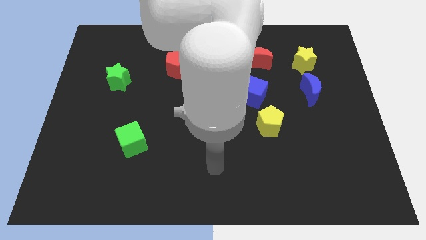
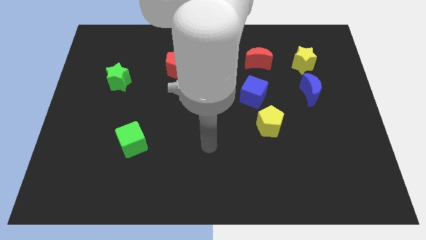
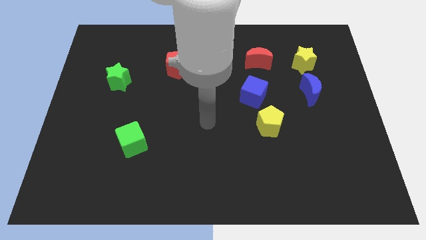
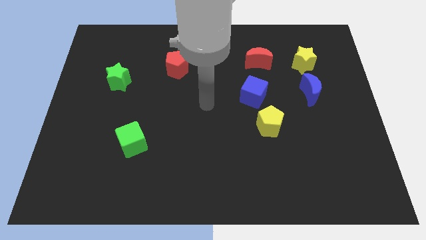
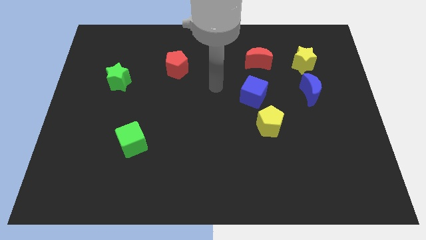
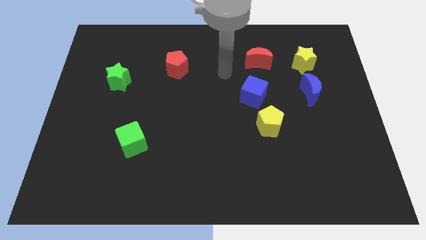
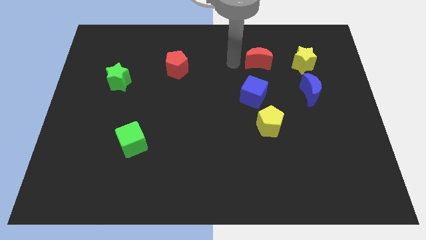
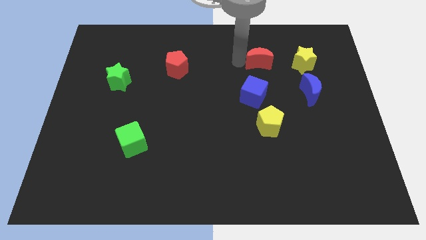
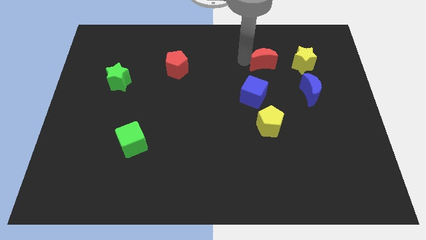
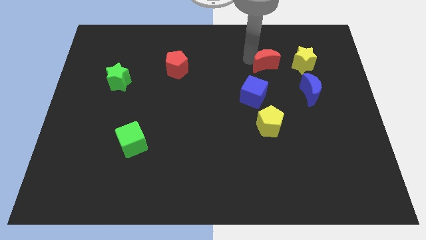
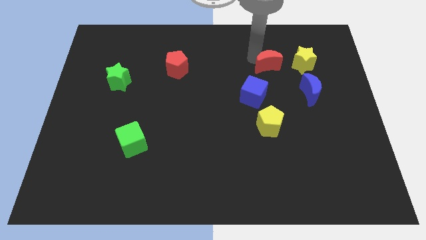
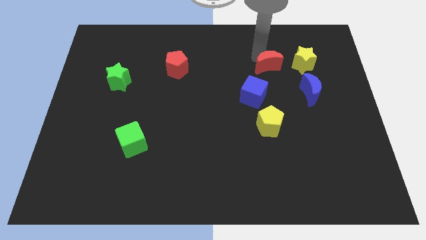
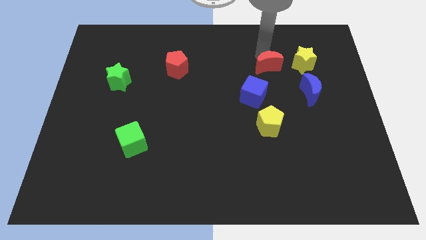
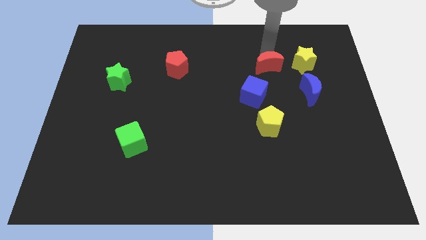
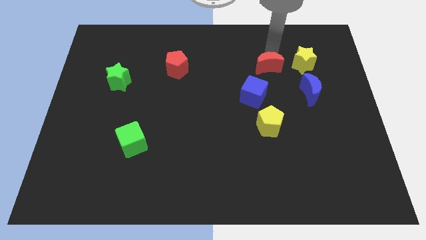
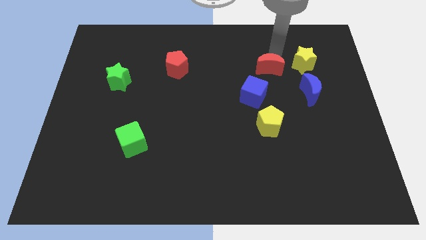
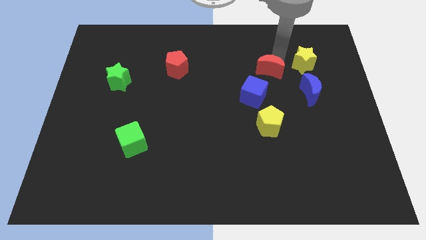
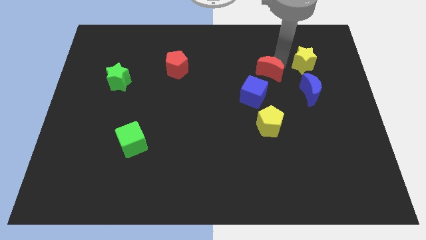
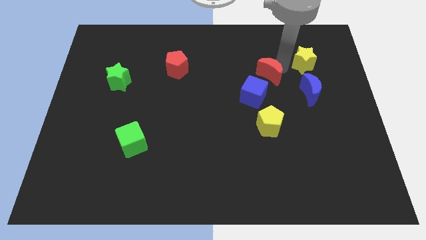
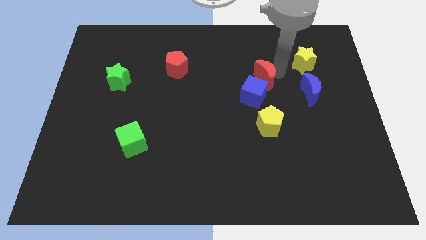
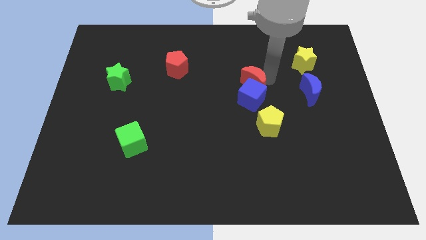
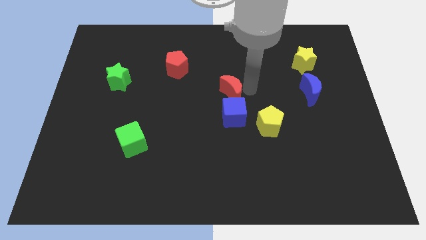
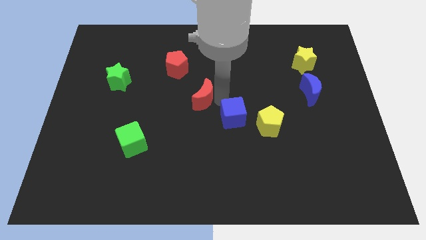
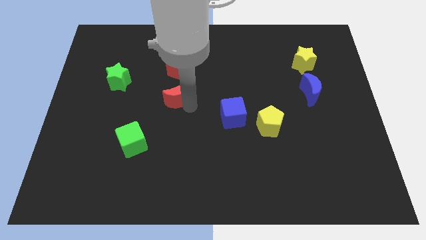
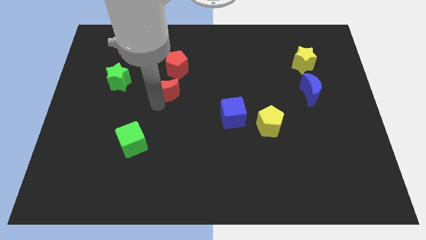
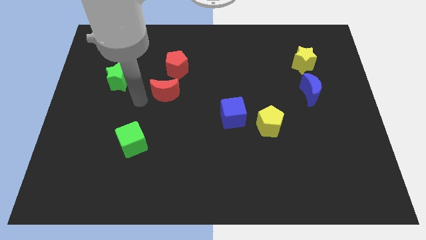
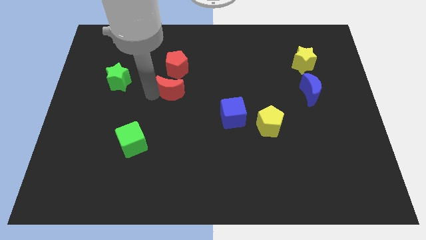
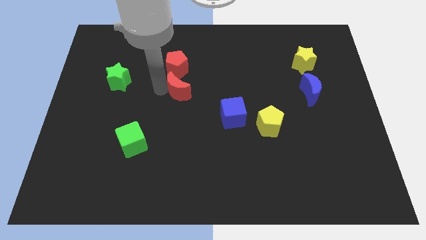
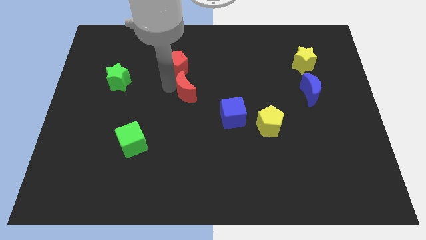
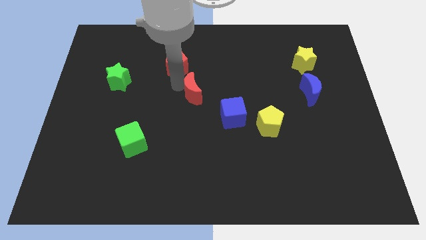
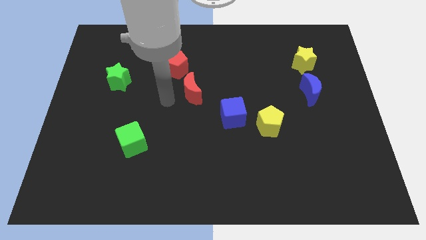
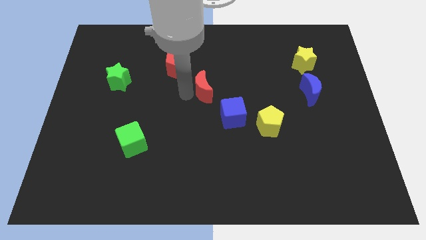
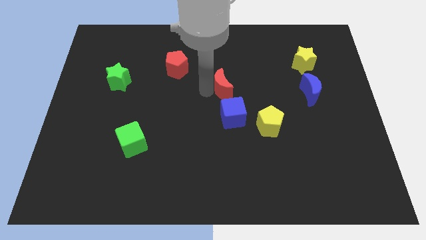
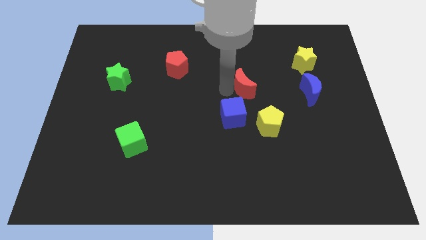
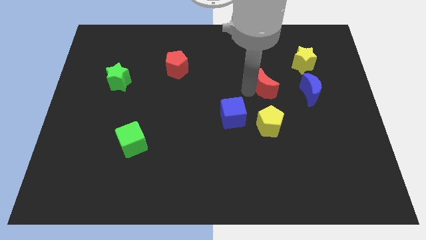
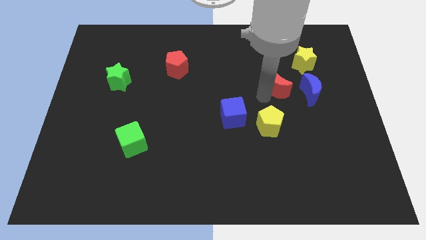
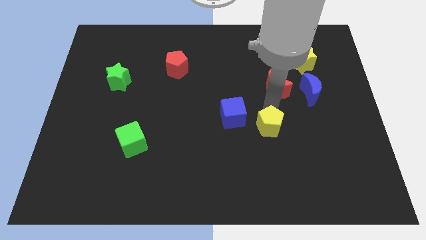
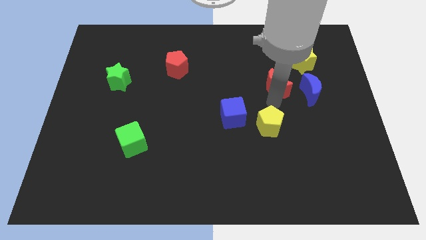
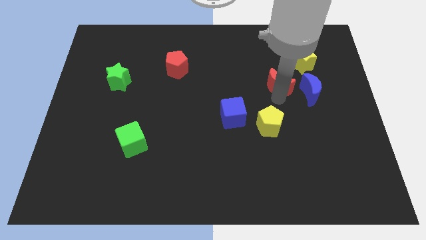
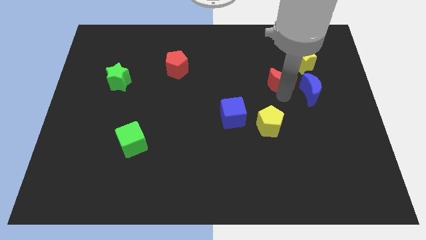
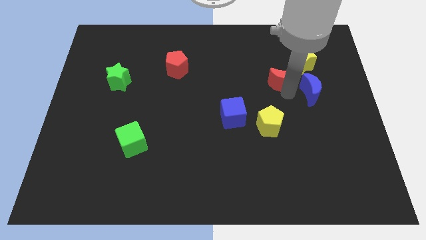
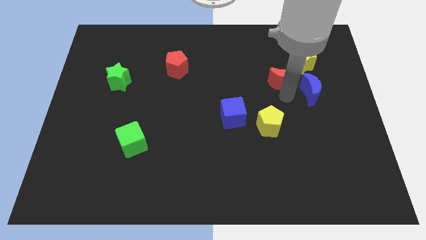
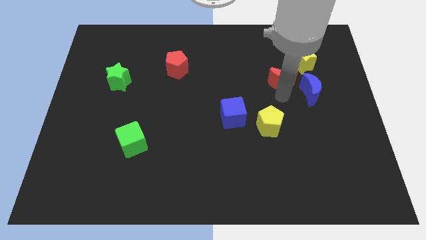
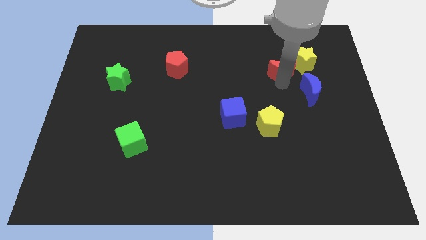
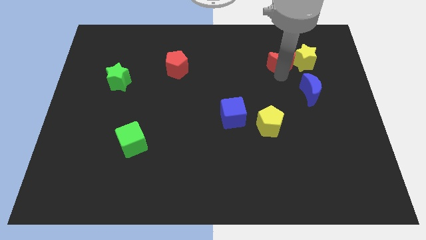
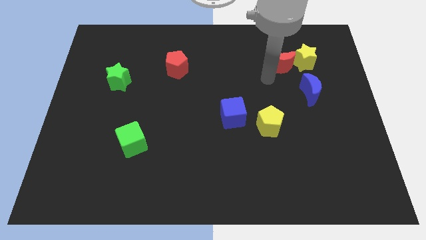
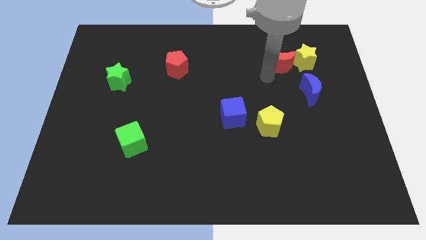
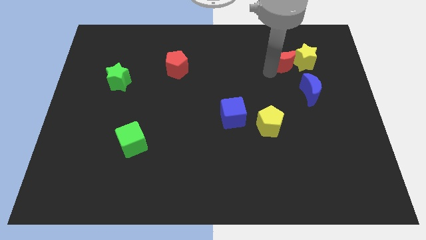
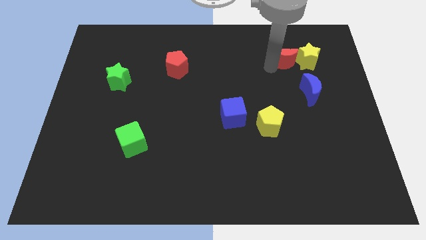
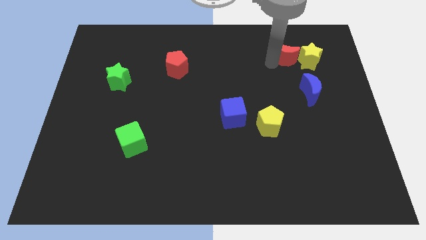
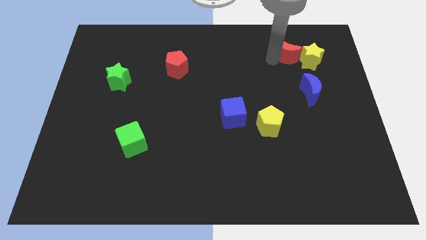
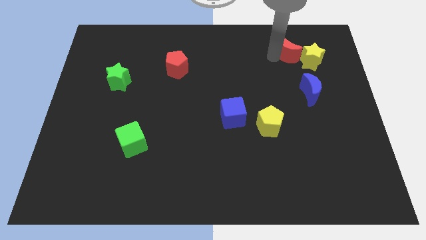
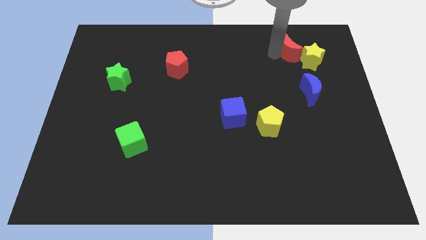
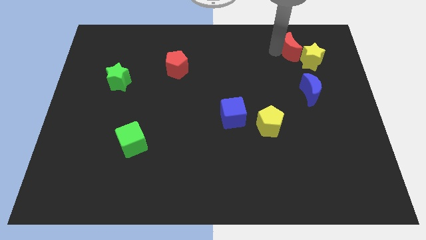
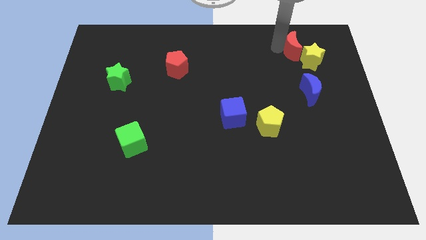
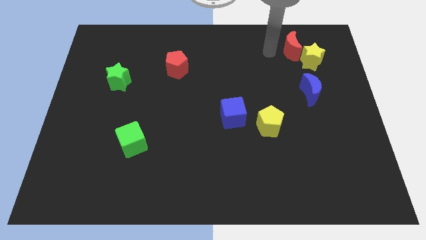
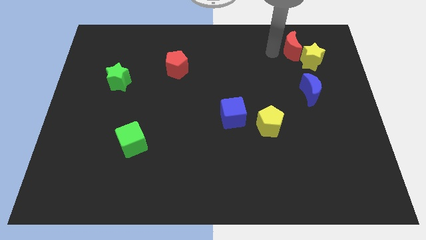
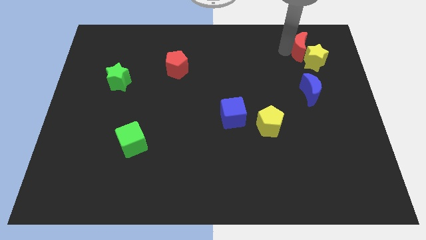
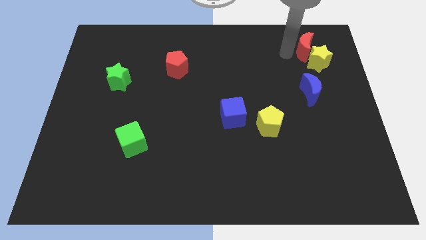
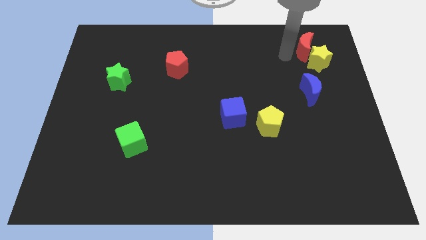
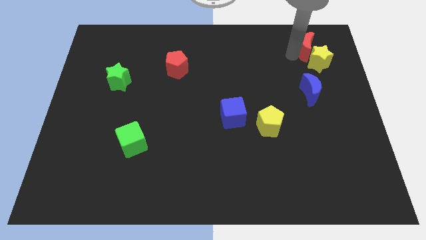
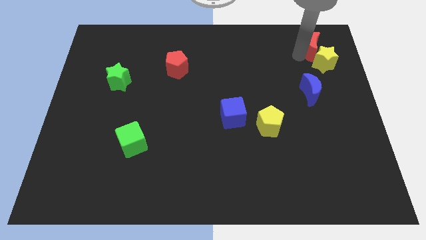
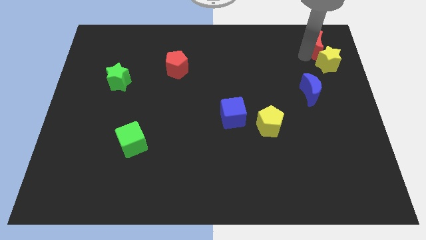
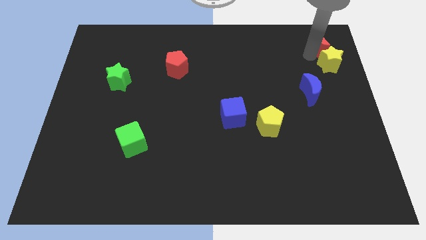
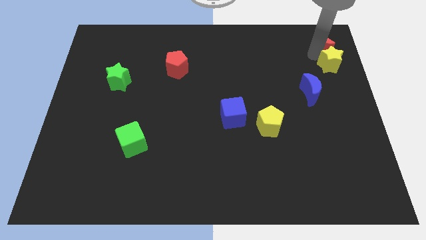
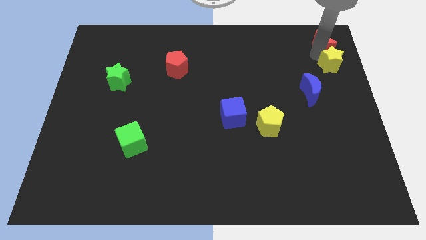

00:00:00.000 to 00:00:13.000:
move the red moon to the top right
